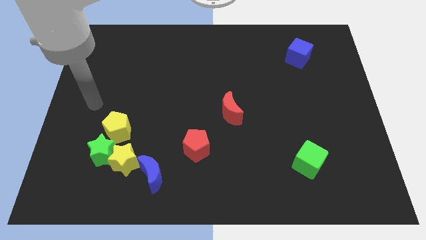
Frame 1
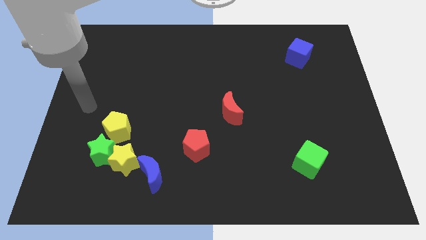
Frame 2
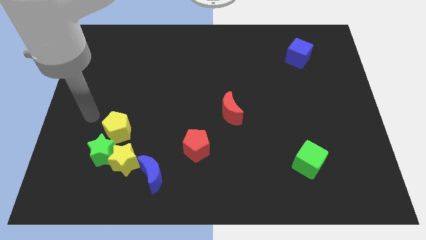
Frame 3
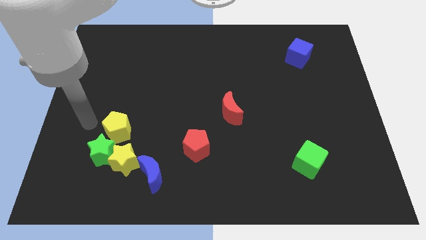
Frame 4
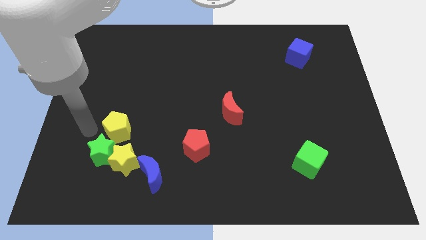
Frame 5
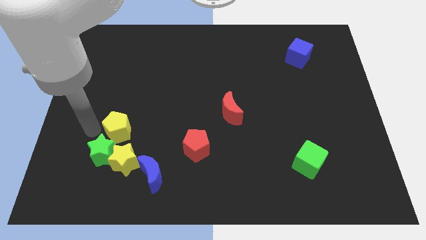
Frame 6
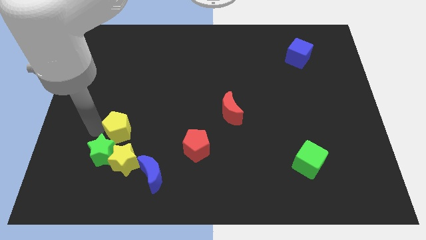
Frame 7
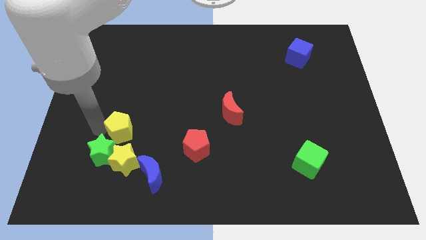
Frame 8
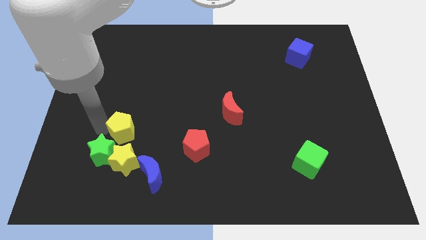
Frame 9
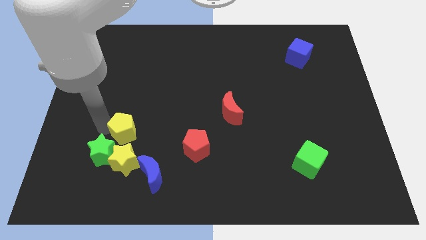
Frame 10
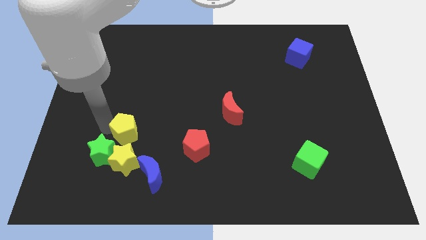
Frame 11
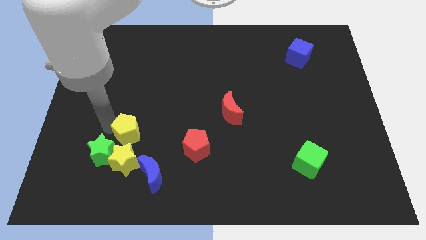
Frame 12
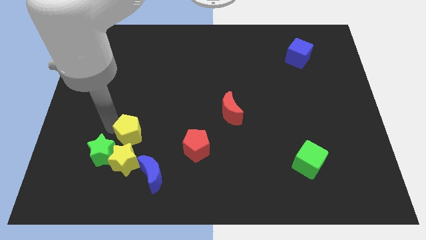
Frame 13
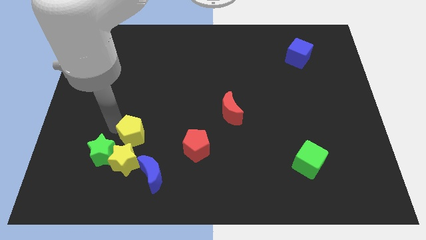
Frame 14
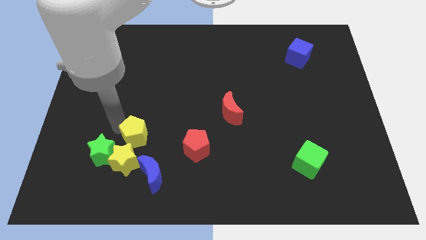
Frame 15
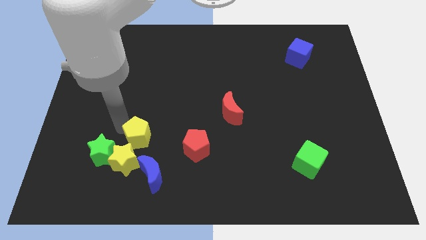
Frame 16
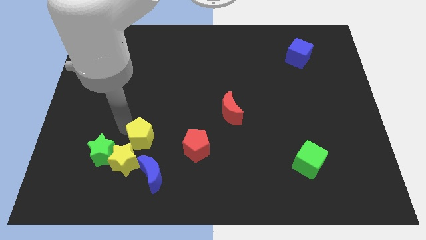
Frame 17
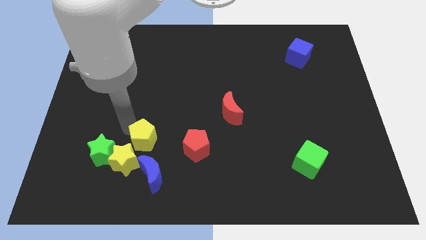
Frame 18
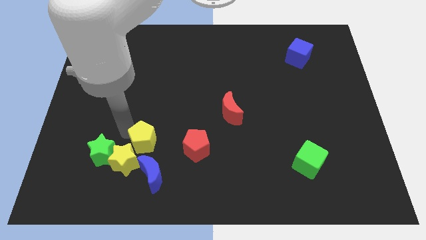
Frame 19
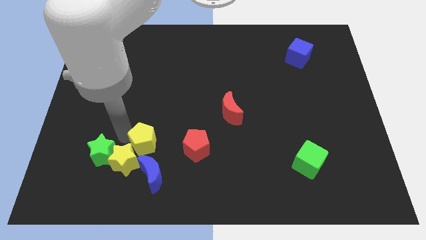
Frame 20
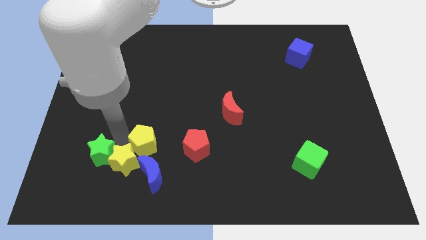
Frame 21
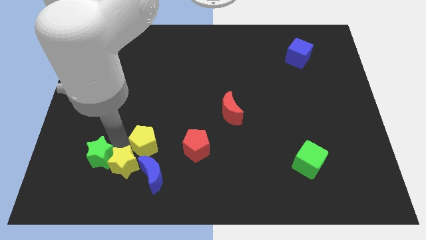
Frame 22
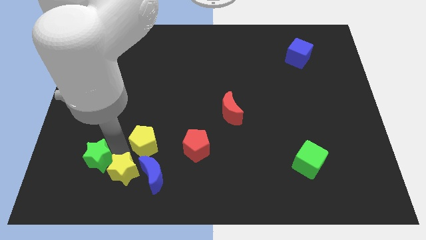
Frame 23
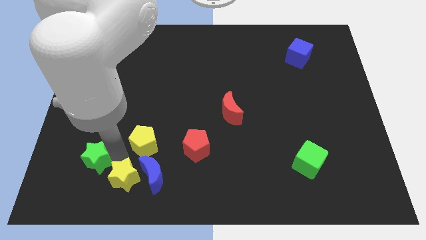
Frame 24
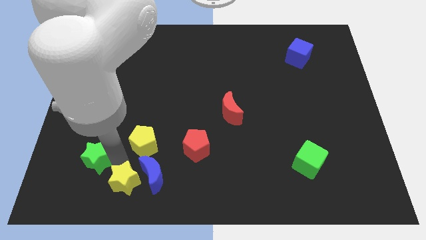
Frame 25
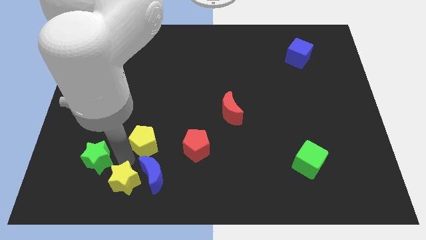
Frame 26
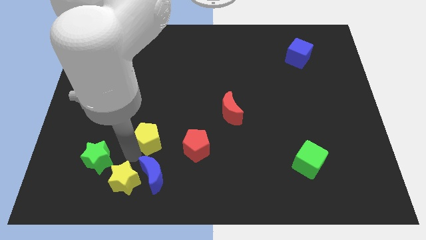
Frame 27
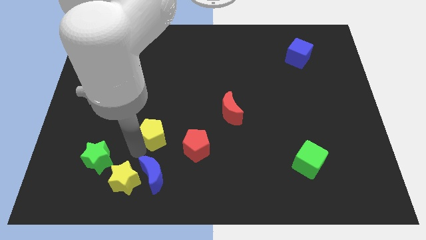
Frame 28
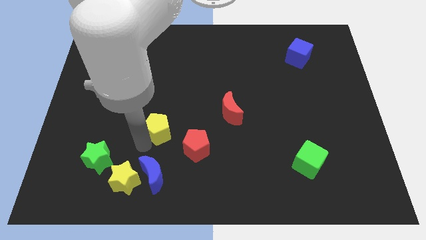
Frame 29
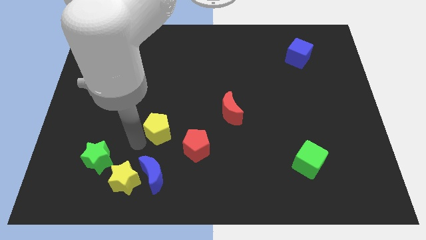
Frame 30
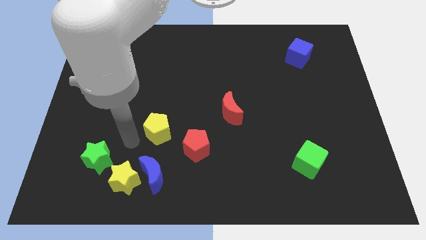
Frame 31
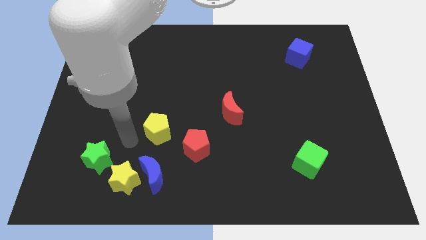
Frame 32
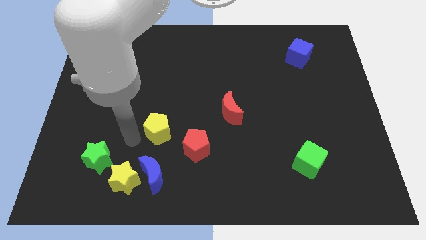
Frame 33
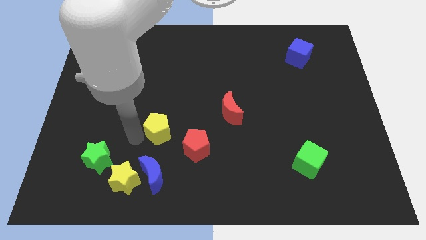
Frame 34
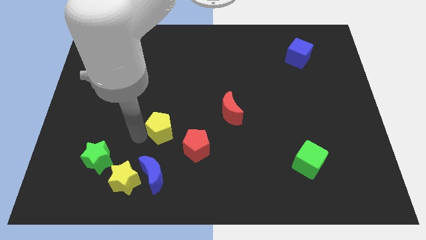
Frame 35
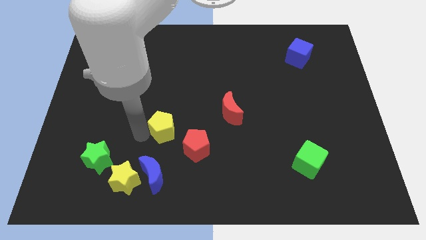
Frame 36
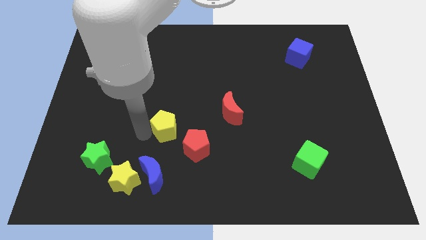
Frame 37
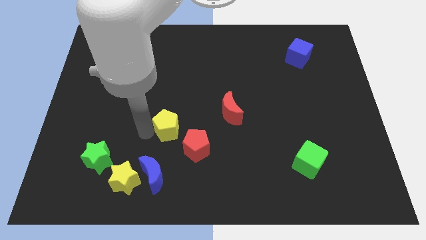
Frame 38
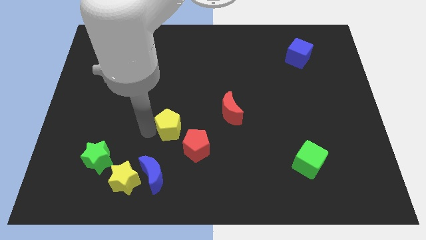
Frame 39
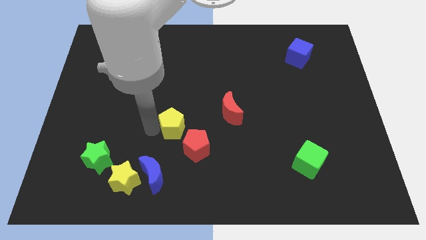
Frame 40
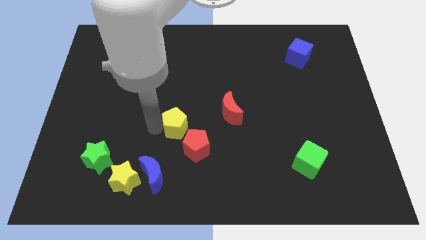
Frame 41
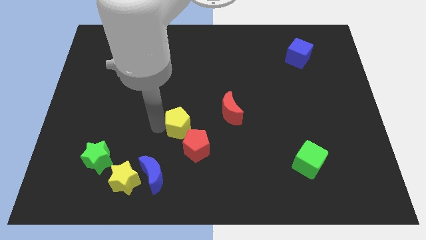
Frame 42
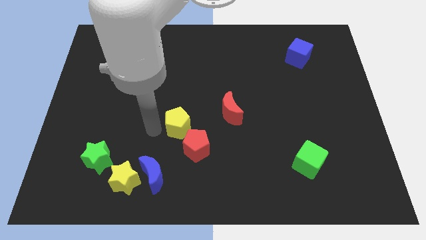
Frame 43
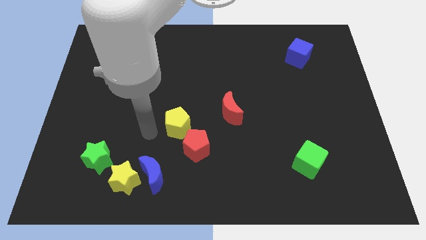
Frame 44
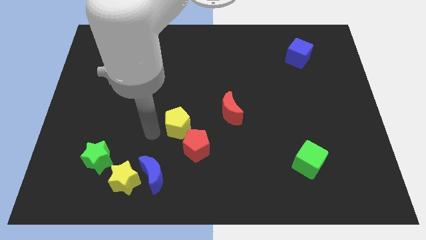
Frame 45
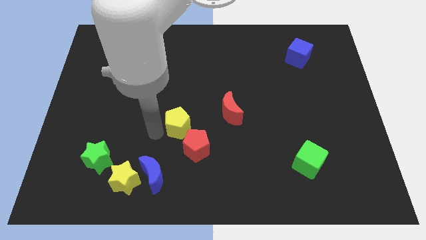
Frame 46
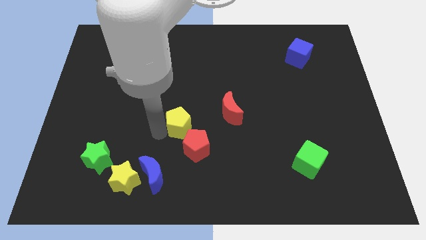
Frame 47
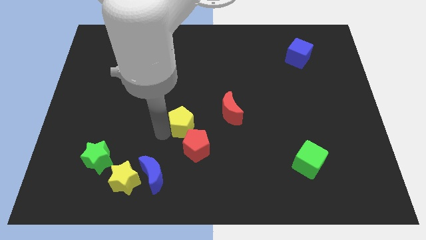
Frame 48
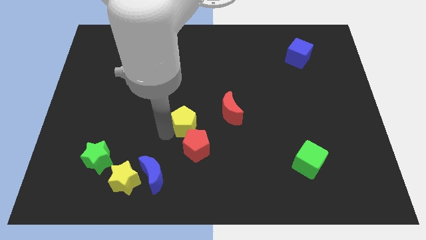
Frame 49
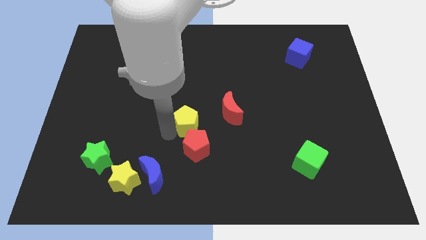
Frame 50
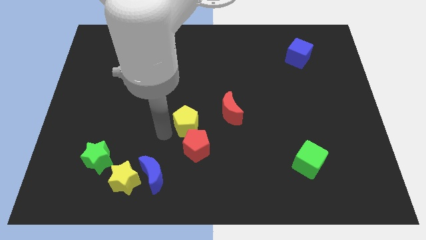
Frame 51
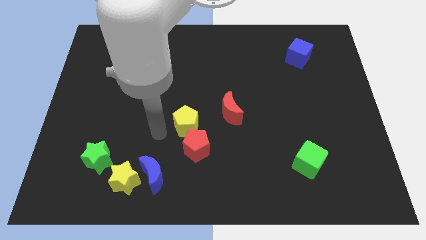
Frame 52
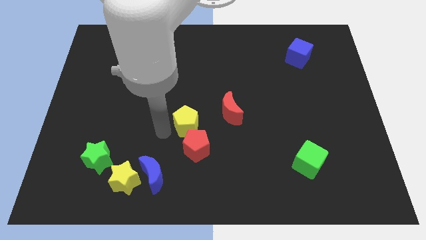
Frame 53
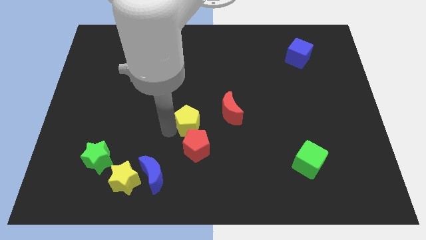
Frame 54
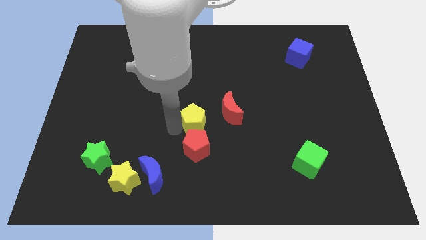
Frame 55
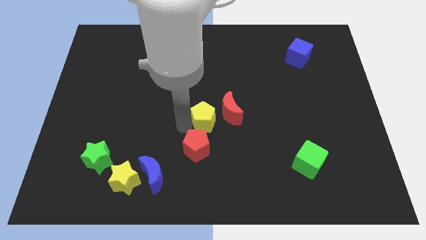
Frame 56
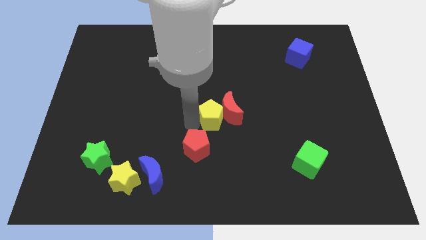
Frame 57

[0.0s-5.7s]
put the yellow pentagon close to the red moon

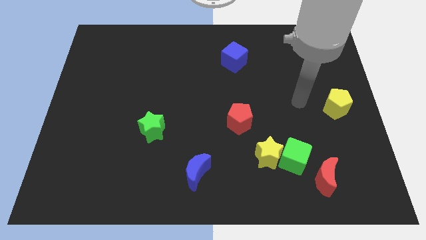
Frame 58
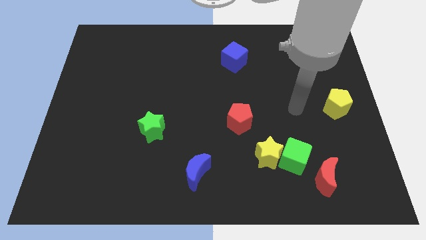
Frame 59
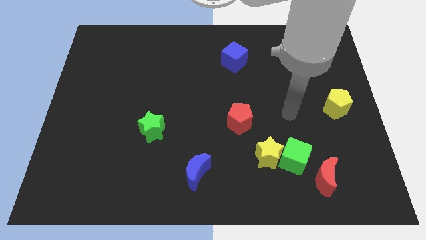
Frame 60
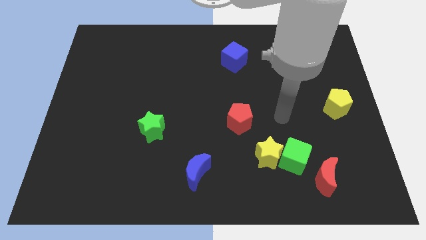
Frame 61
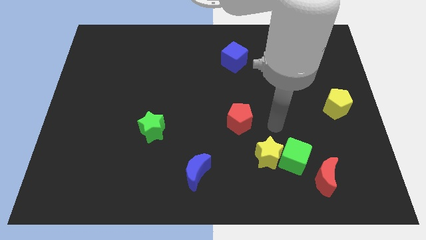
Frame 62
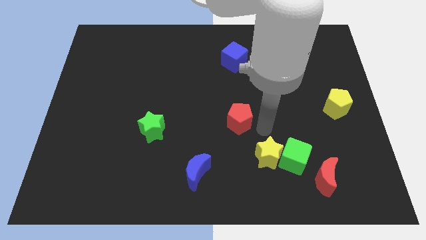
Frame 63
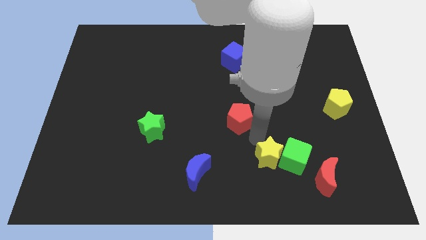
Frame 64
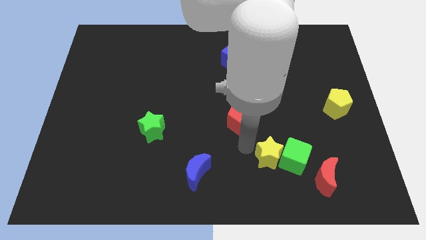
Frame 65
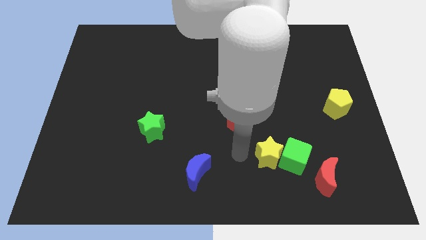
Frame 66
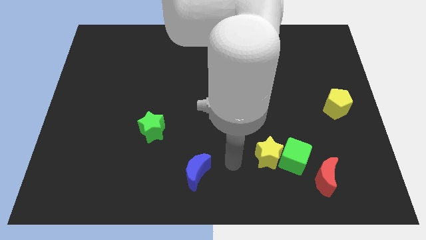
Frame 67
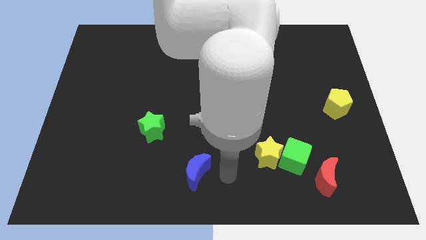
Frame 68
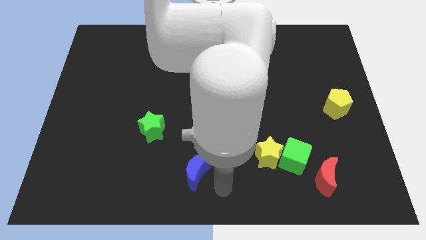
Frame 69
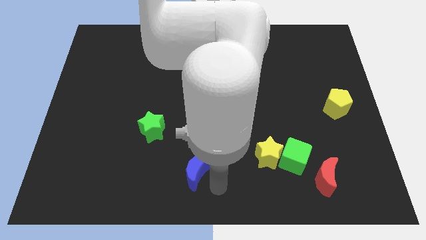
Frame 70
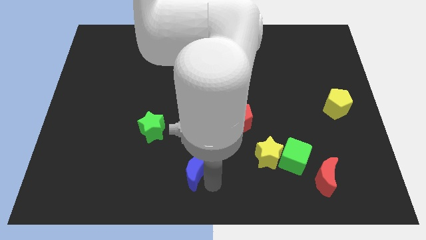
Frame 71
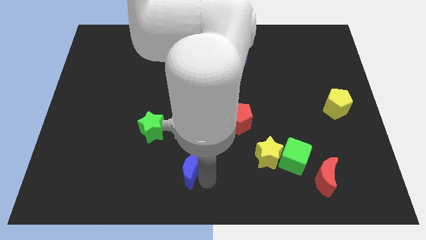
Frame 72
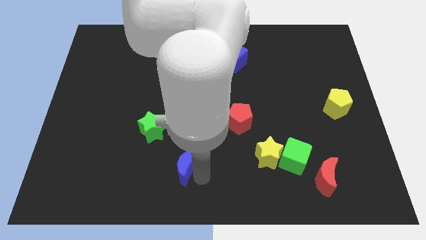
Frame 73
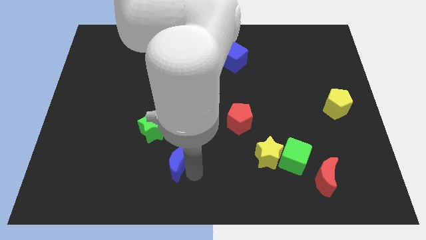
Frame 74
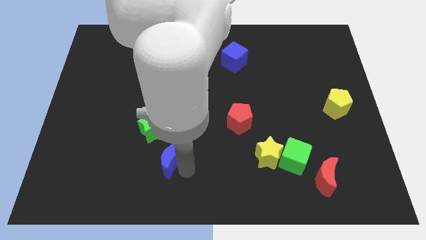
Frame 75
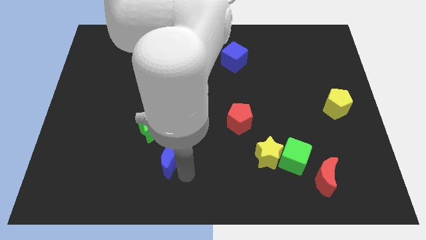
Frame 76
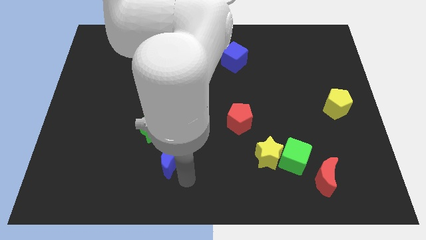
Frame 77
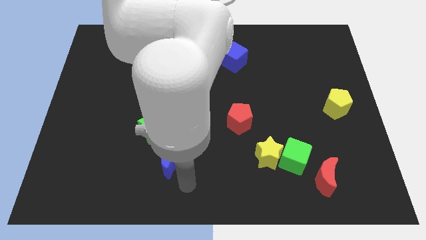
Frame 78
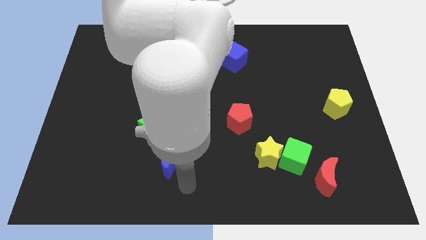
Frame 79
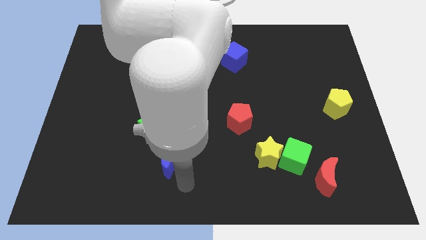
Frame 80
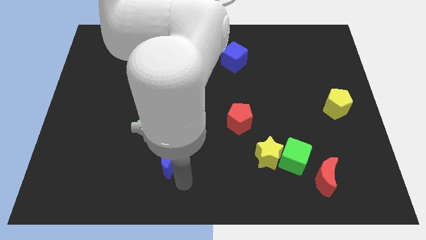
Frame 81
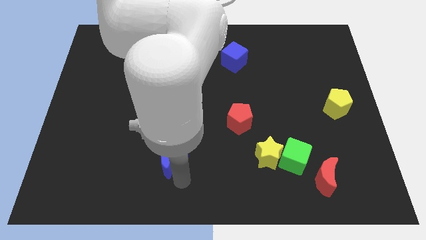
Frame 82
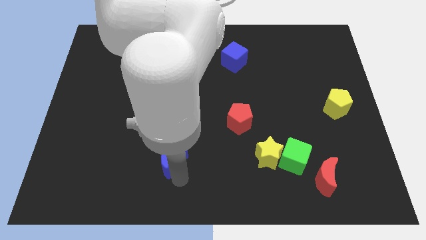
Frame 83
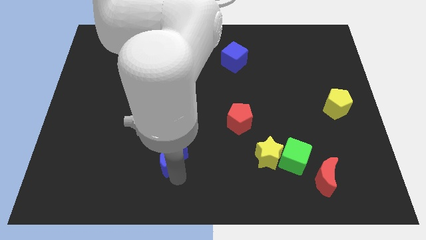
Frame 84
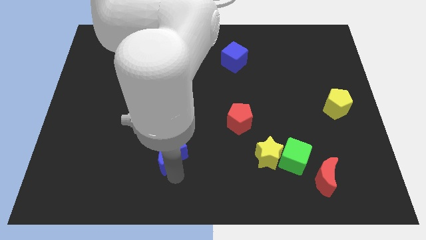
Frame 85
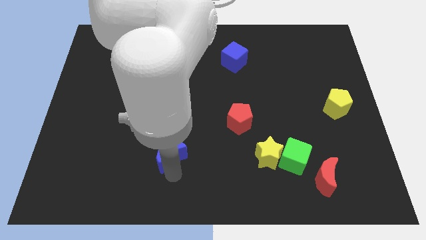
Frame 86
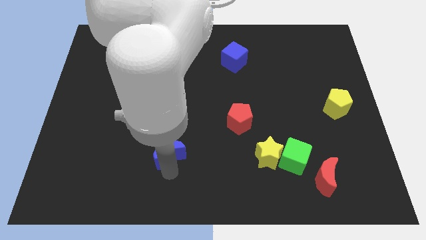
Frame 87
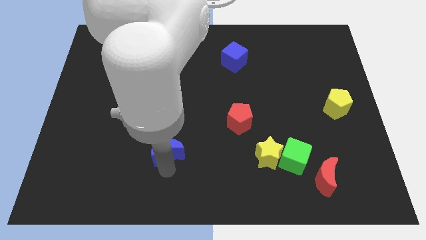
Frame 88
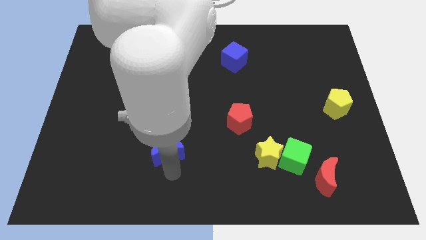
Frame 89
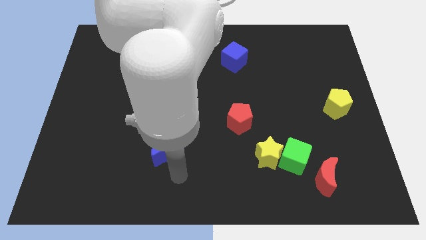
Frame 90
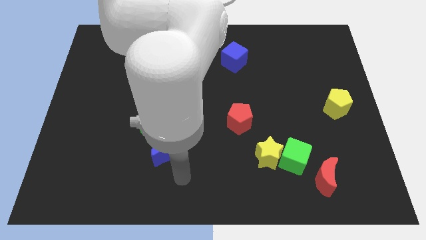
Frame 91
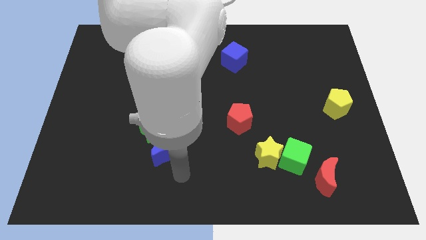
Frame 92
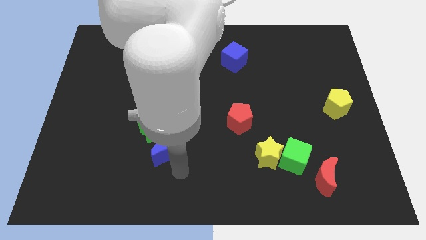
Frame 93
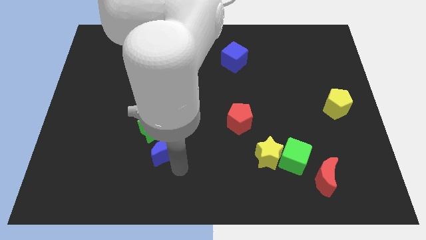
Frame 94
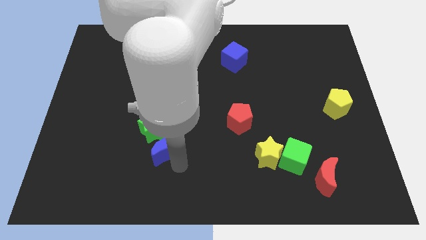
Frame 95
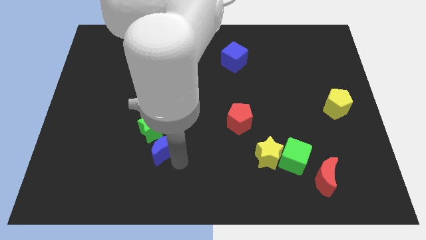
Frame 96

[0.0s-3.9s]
push the blue moon close to the green star
